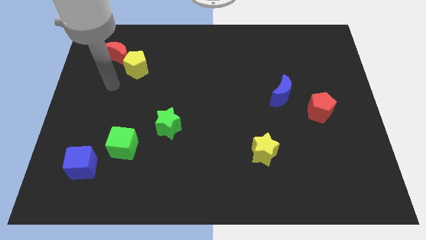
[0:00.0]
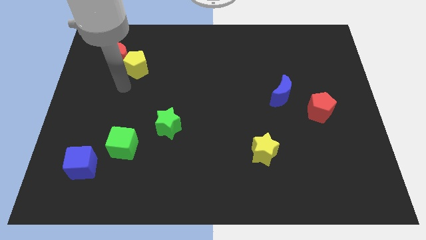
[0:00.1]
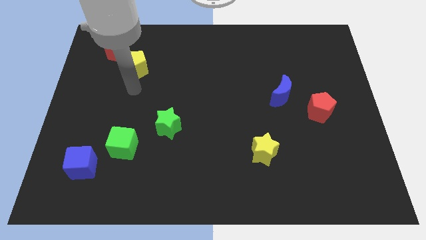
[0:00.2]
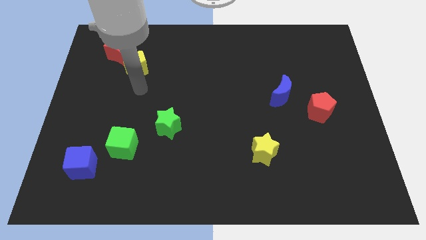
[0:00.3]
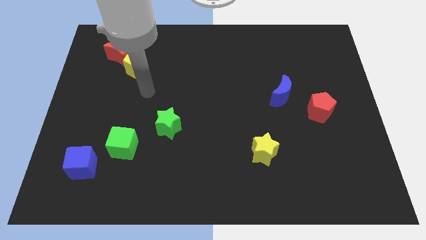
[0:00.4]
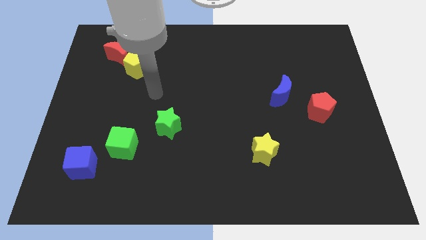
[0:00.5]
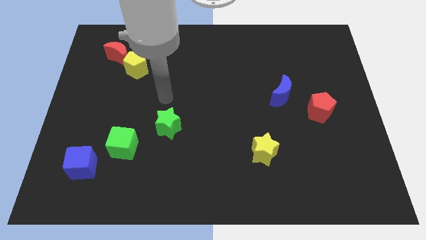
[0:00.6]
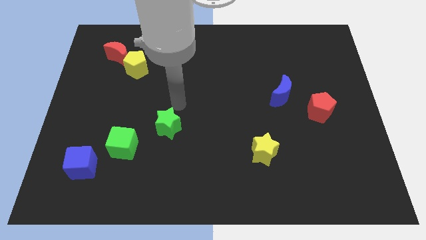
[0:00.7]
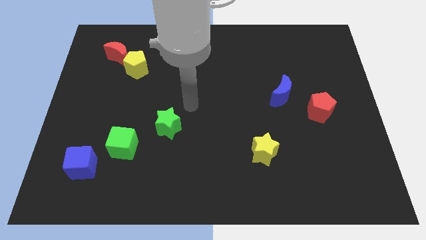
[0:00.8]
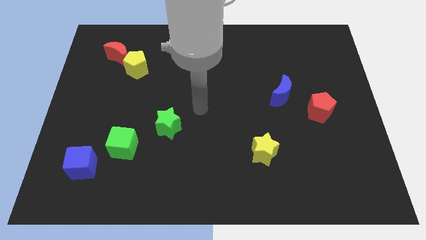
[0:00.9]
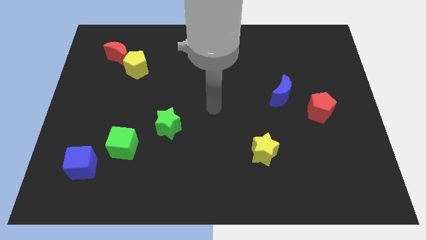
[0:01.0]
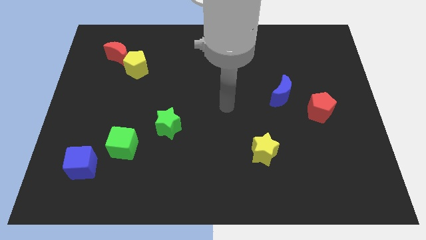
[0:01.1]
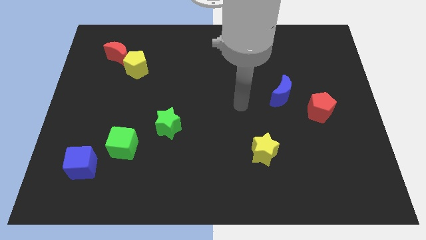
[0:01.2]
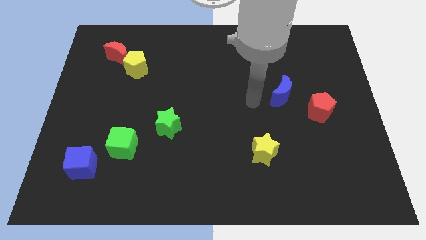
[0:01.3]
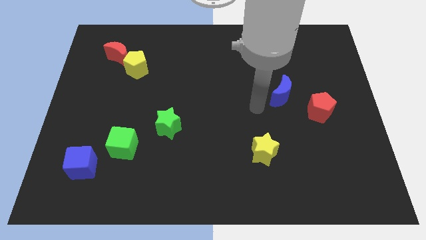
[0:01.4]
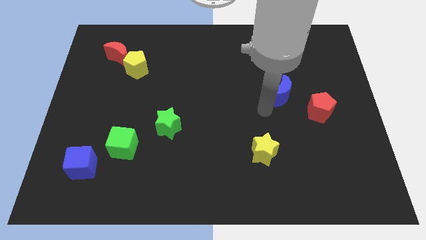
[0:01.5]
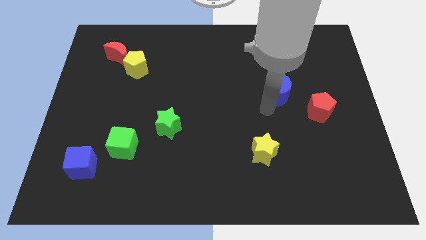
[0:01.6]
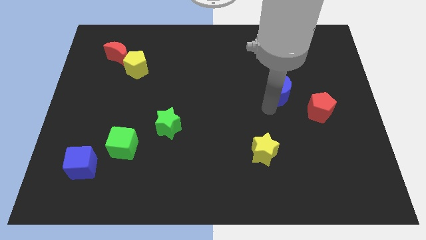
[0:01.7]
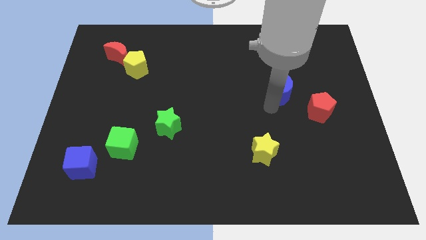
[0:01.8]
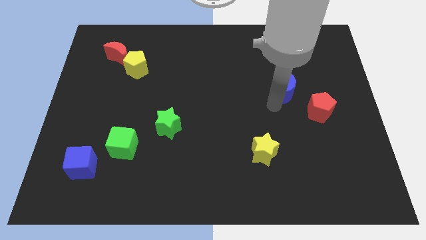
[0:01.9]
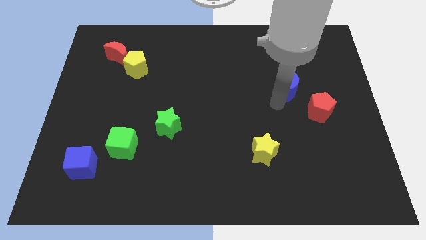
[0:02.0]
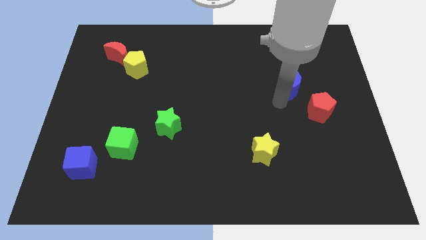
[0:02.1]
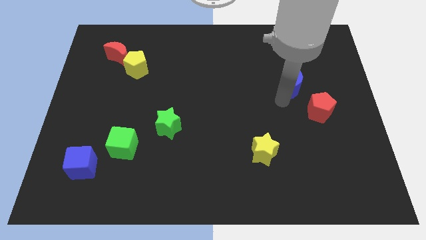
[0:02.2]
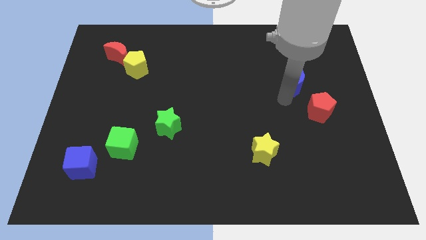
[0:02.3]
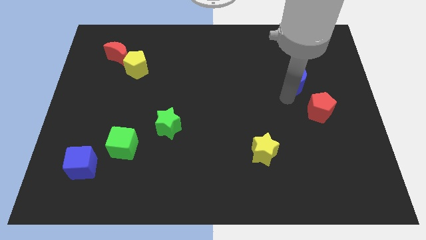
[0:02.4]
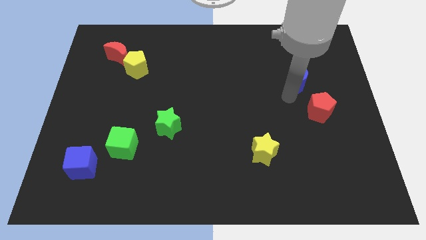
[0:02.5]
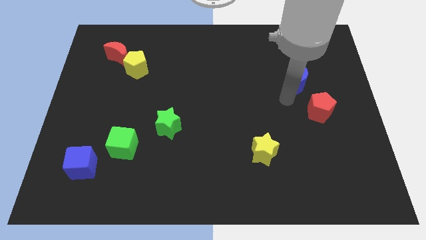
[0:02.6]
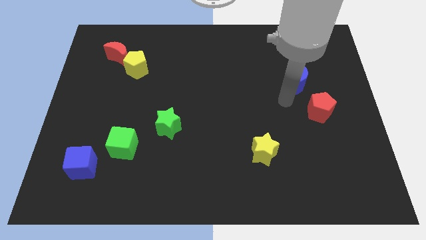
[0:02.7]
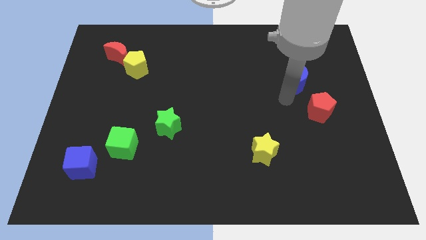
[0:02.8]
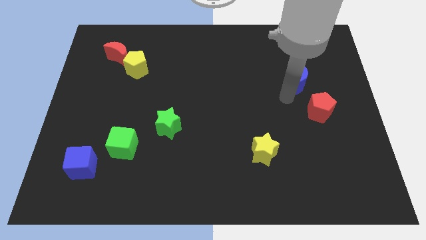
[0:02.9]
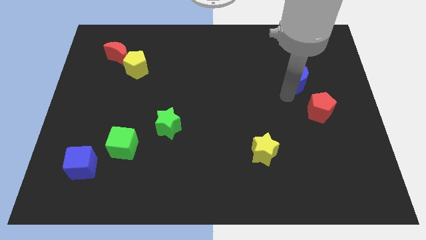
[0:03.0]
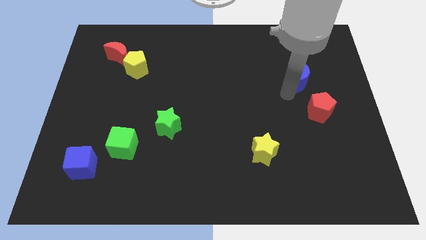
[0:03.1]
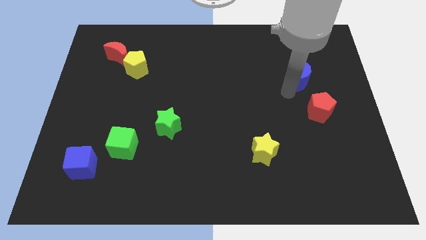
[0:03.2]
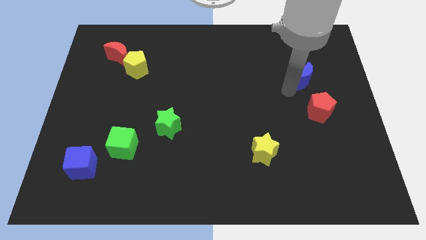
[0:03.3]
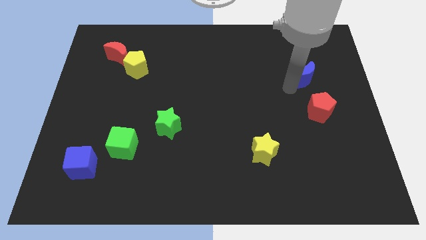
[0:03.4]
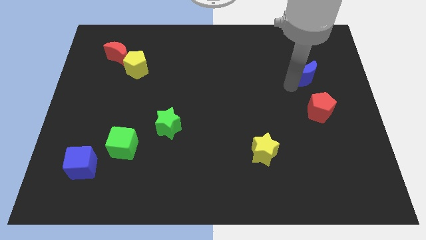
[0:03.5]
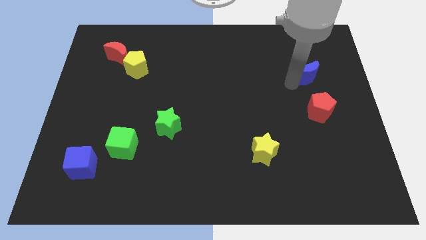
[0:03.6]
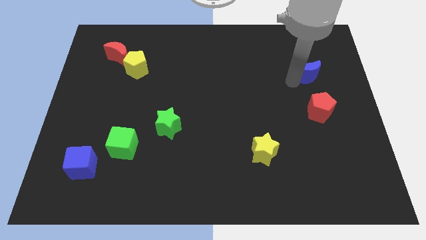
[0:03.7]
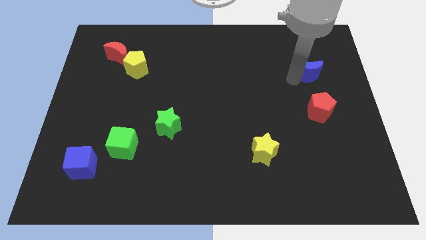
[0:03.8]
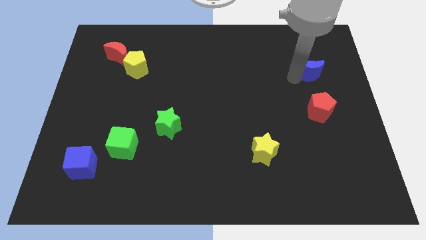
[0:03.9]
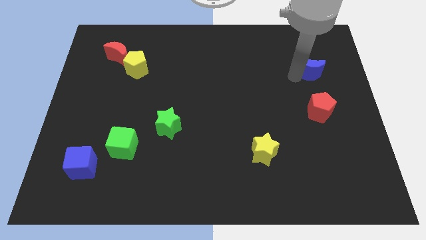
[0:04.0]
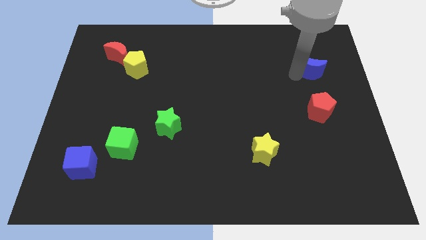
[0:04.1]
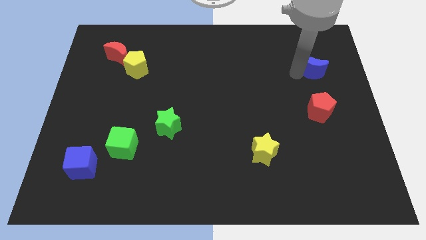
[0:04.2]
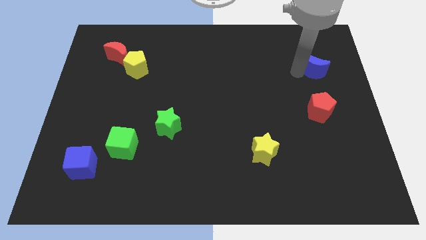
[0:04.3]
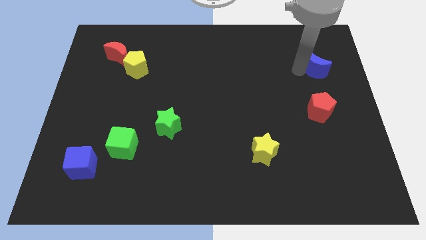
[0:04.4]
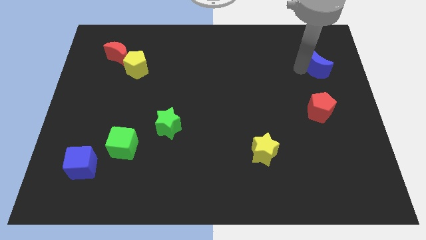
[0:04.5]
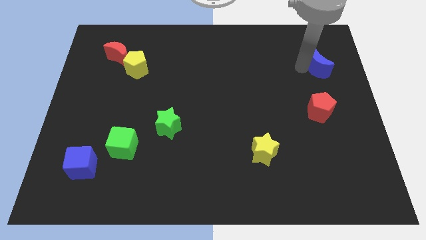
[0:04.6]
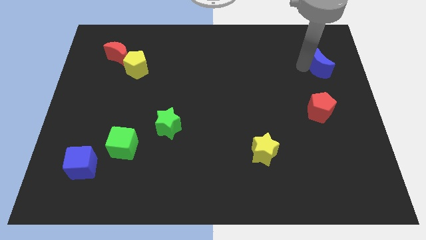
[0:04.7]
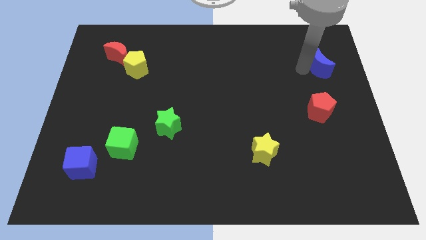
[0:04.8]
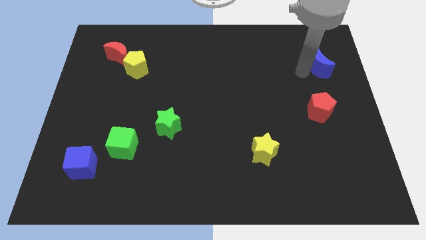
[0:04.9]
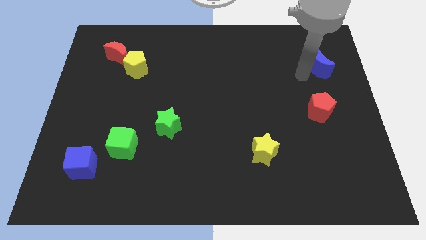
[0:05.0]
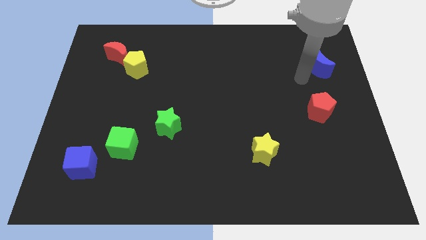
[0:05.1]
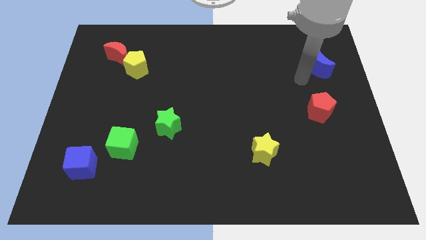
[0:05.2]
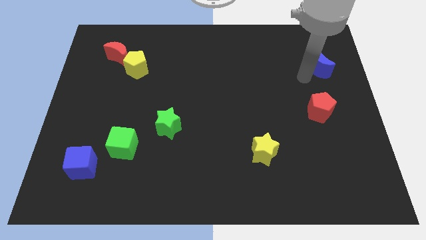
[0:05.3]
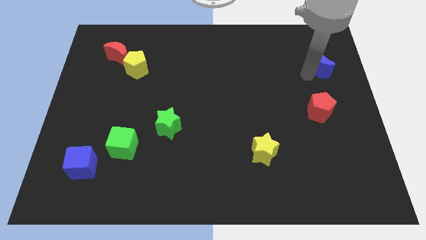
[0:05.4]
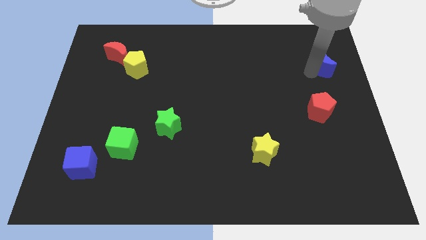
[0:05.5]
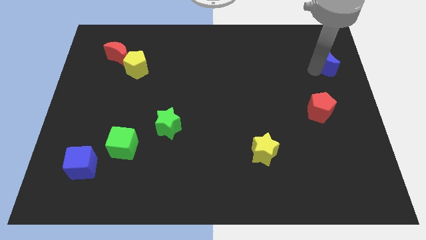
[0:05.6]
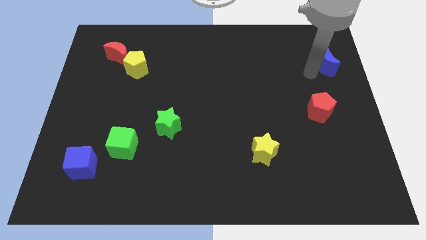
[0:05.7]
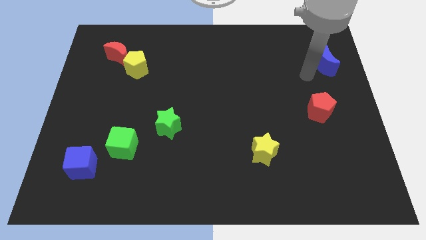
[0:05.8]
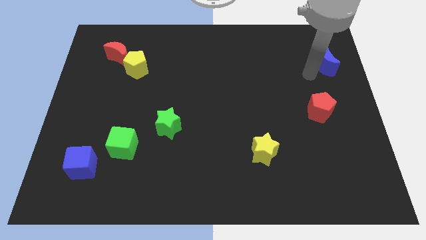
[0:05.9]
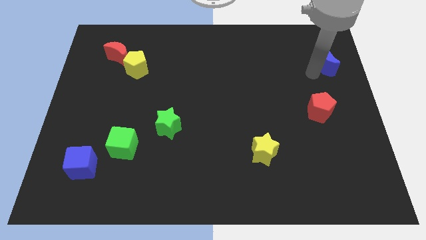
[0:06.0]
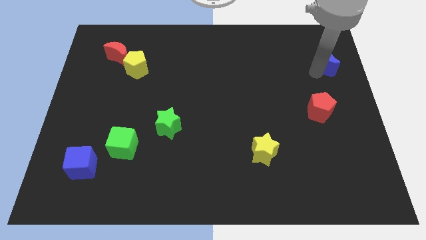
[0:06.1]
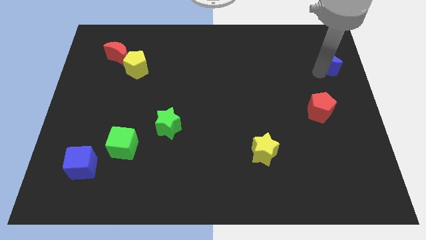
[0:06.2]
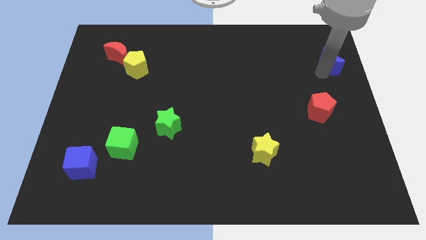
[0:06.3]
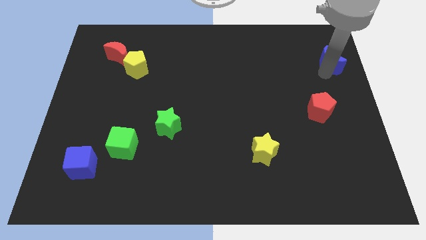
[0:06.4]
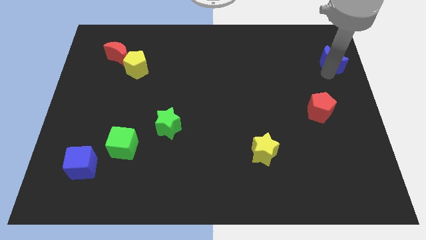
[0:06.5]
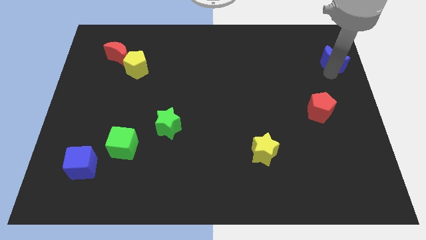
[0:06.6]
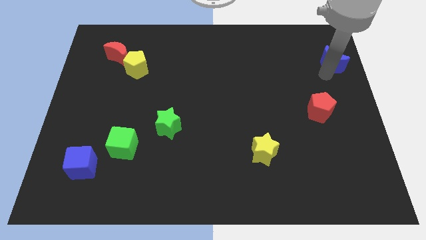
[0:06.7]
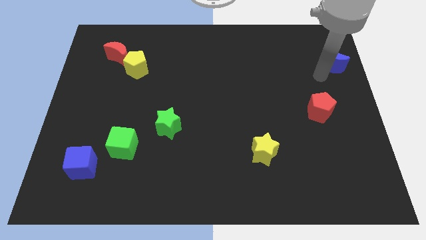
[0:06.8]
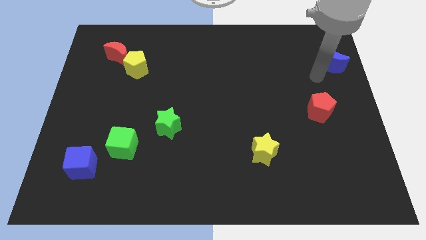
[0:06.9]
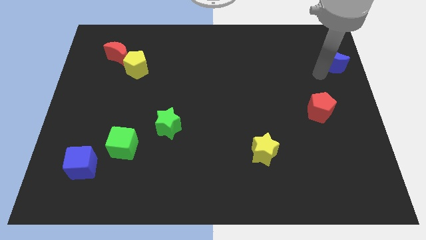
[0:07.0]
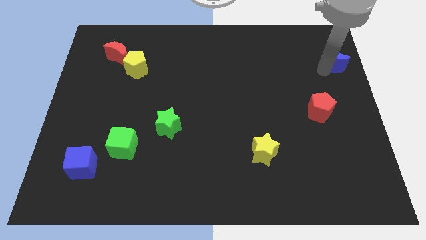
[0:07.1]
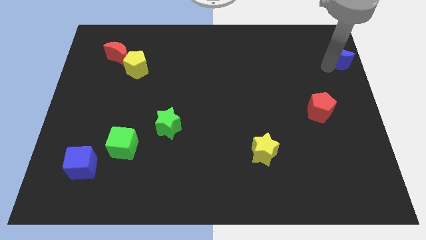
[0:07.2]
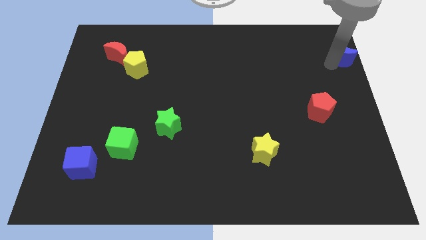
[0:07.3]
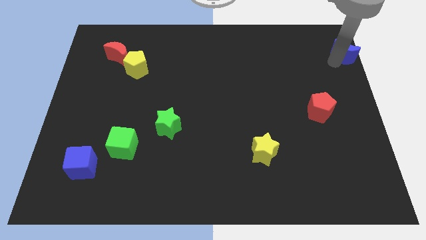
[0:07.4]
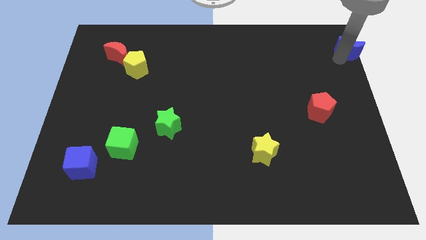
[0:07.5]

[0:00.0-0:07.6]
slide the blue moon to the upper right corner
